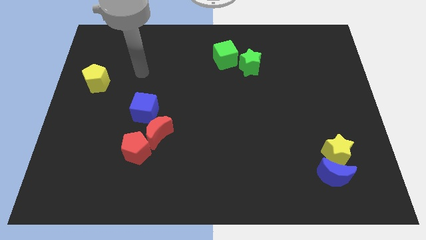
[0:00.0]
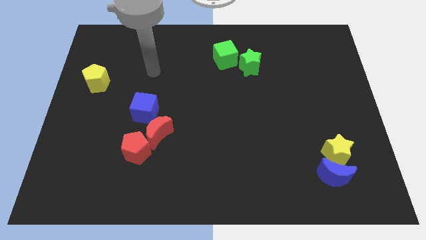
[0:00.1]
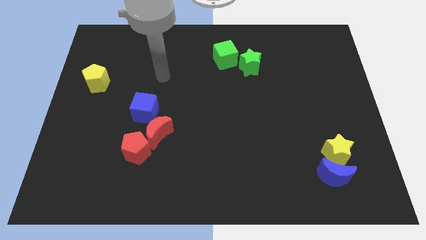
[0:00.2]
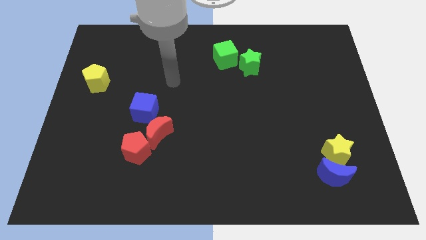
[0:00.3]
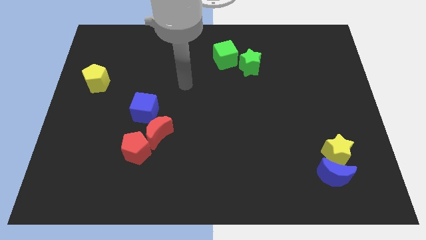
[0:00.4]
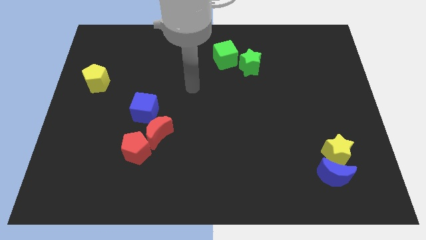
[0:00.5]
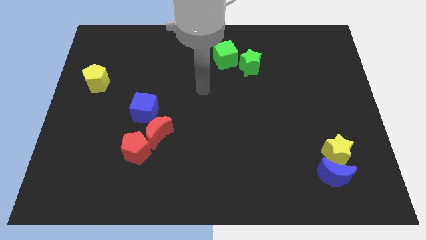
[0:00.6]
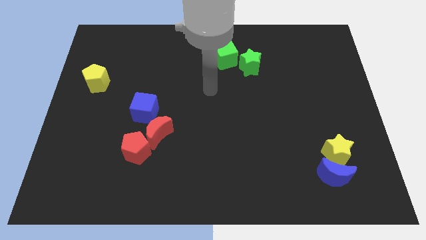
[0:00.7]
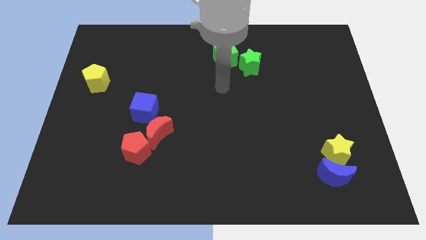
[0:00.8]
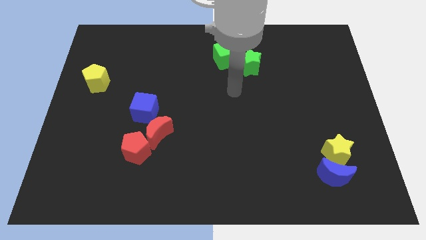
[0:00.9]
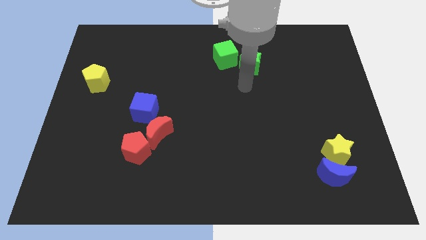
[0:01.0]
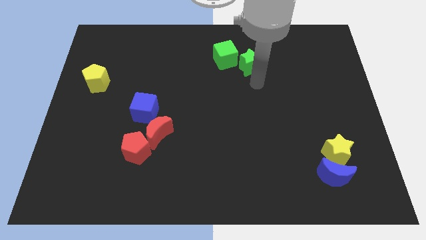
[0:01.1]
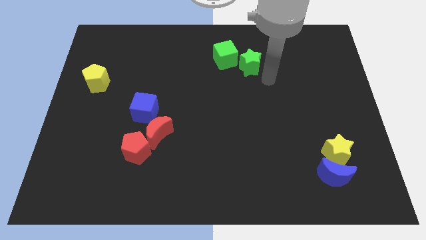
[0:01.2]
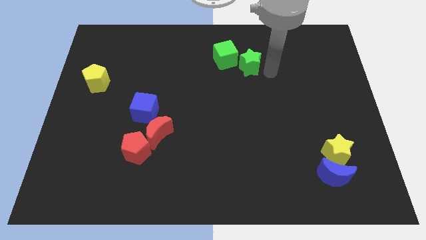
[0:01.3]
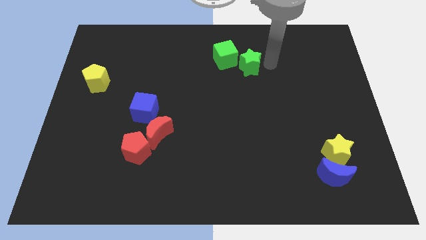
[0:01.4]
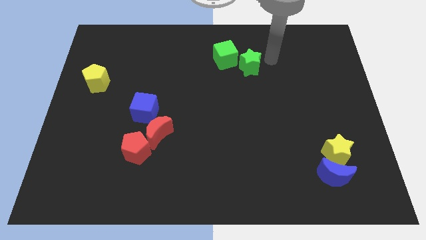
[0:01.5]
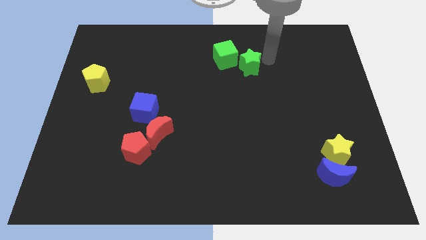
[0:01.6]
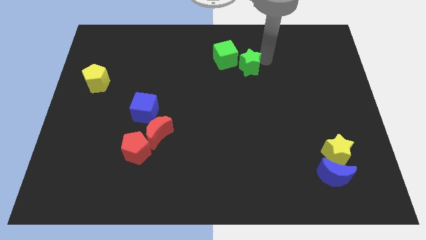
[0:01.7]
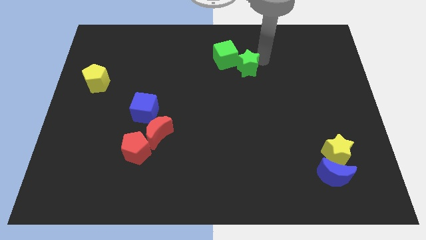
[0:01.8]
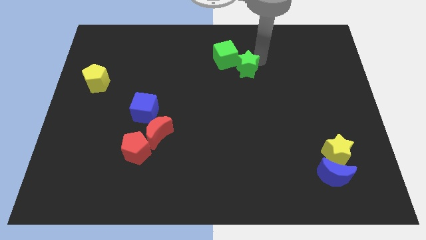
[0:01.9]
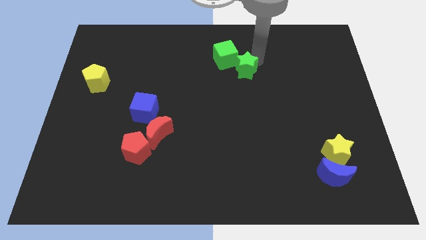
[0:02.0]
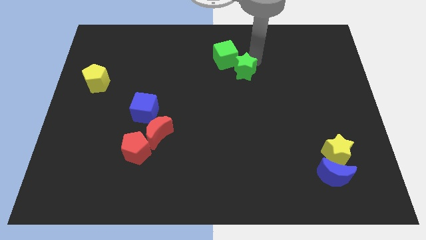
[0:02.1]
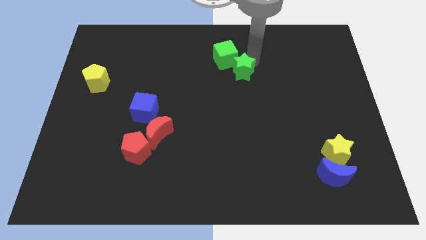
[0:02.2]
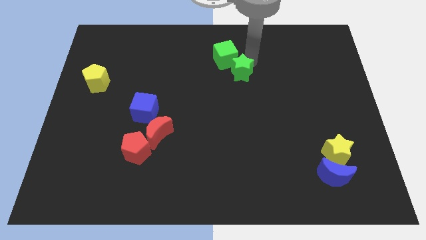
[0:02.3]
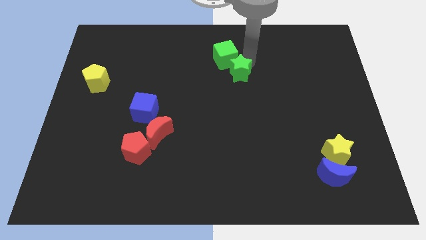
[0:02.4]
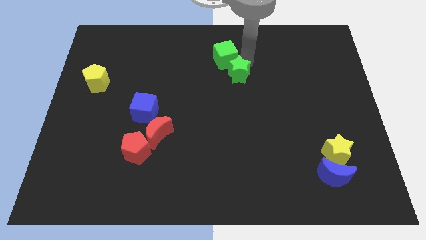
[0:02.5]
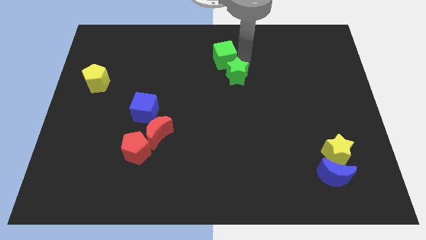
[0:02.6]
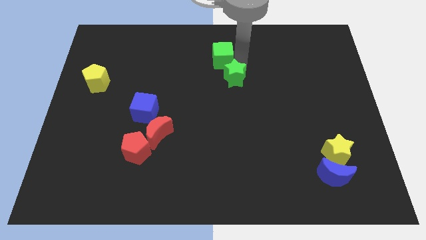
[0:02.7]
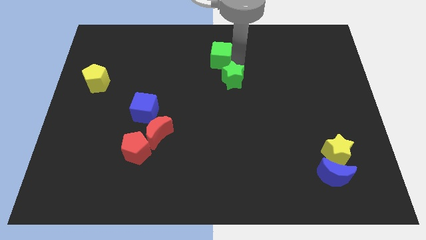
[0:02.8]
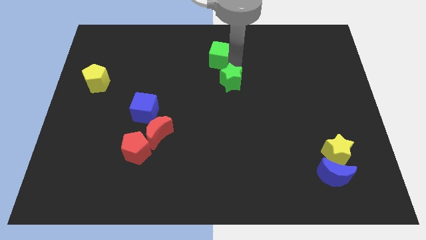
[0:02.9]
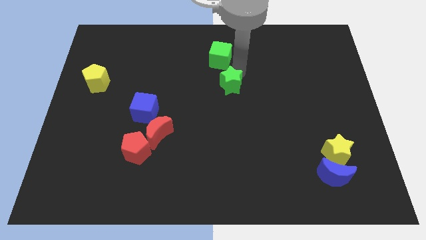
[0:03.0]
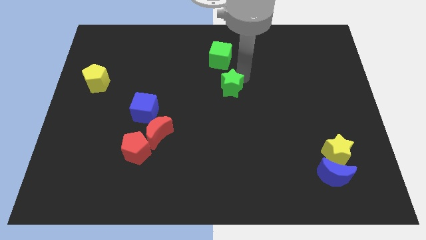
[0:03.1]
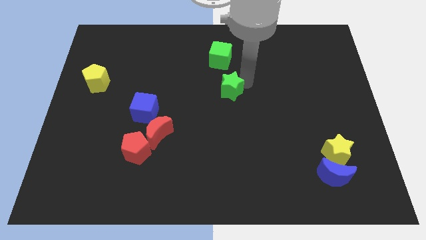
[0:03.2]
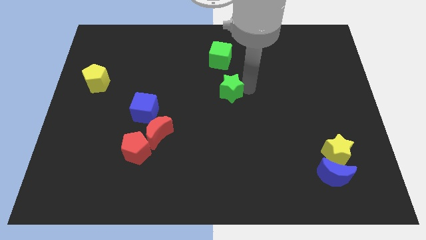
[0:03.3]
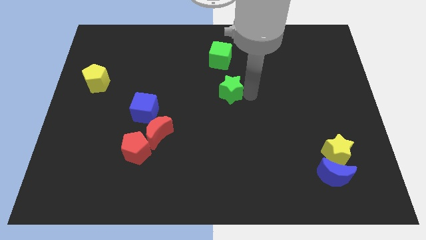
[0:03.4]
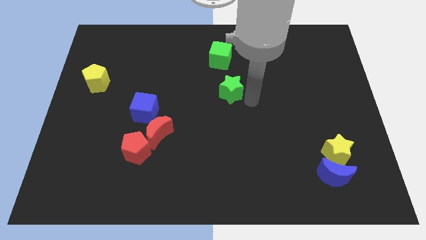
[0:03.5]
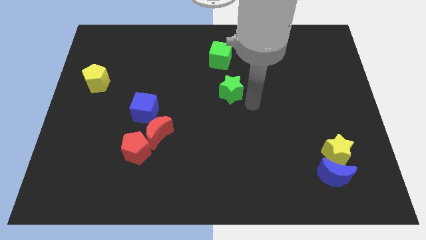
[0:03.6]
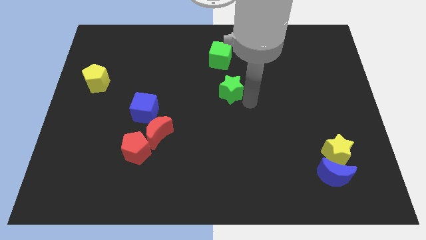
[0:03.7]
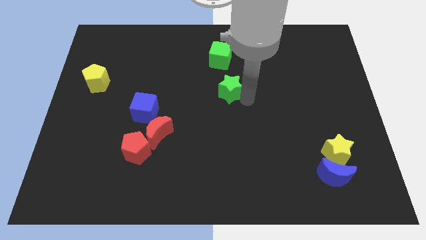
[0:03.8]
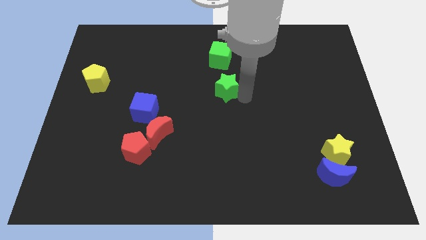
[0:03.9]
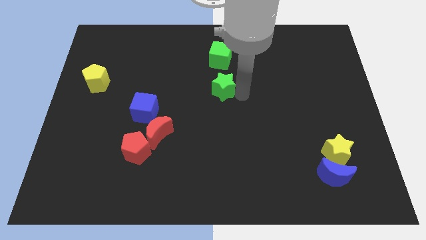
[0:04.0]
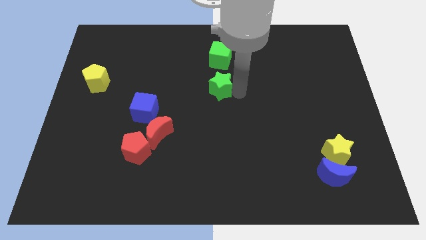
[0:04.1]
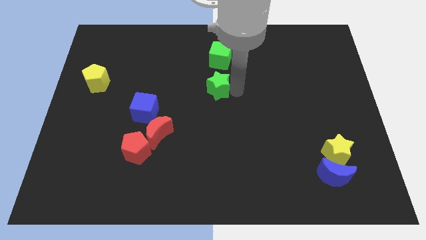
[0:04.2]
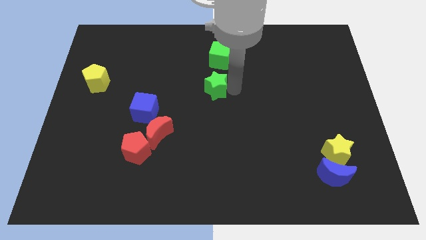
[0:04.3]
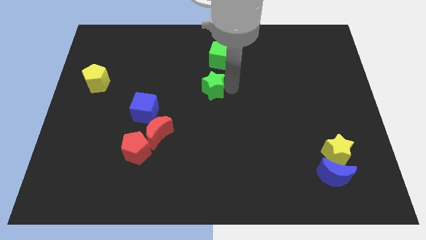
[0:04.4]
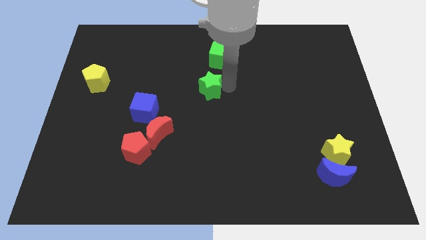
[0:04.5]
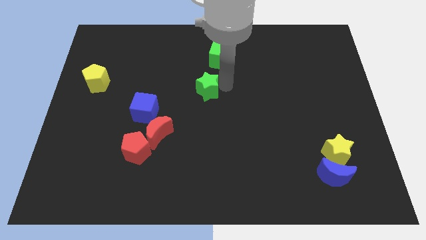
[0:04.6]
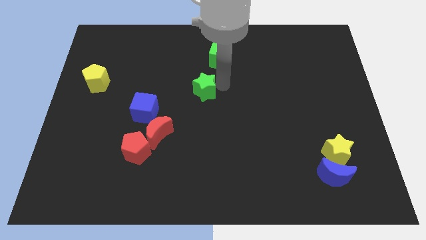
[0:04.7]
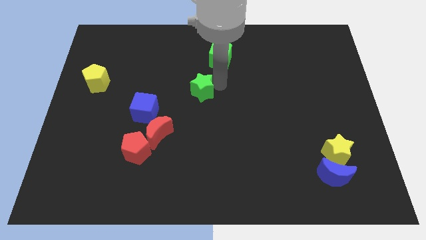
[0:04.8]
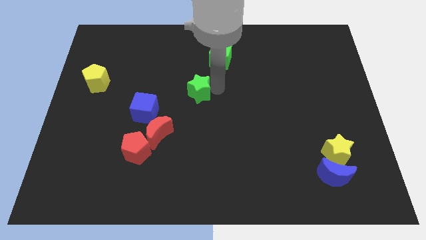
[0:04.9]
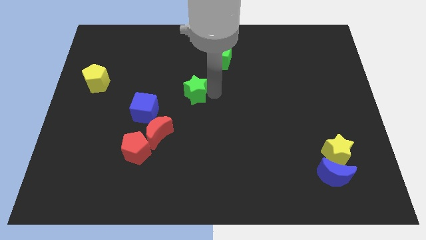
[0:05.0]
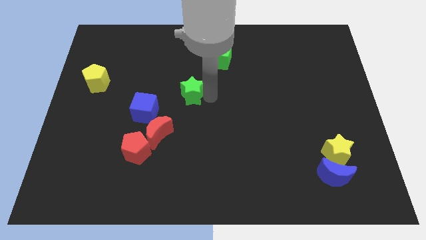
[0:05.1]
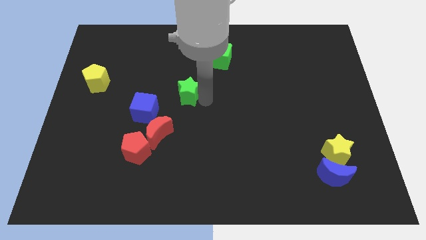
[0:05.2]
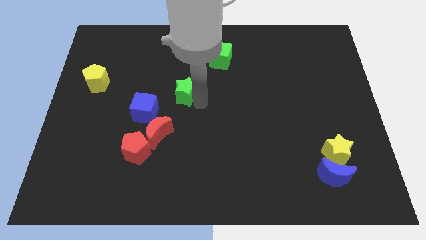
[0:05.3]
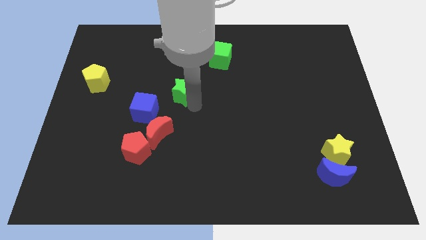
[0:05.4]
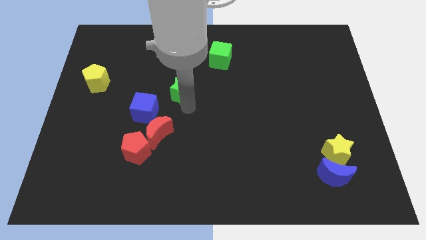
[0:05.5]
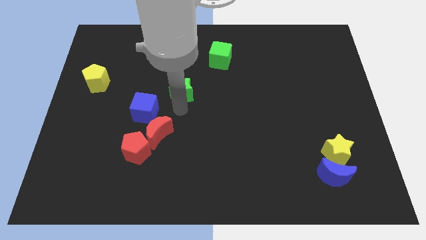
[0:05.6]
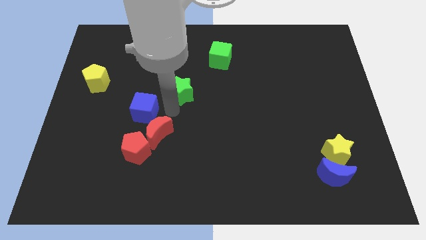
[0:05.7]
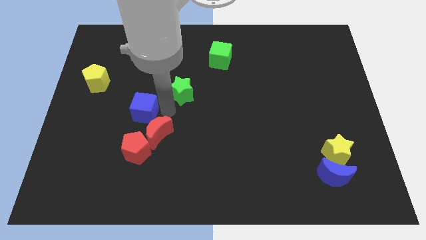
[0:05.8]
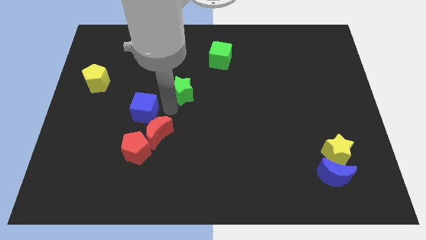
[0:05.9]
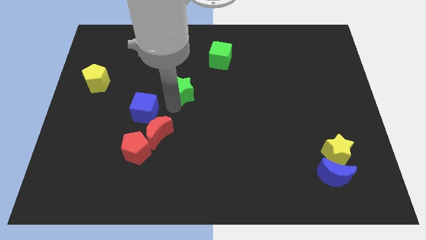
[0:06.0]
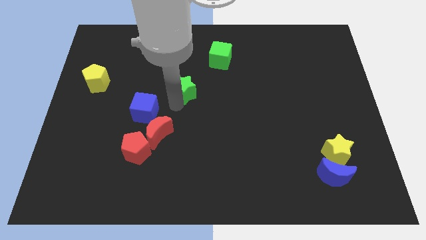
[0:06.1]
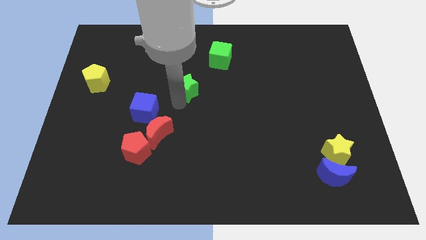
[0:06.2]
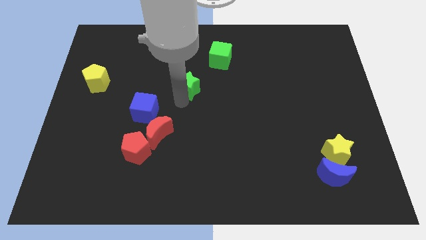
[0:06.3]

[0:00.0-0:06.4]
put the green star to the bottom left of the green cube

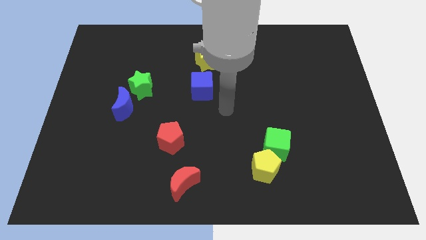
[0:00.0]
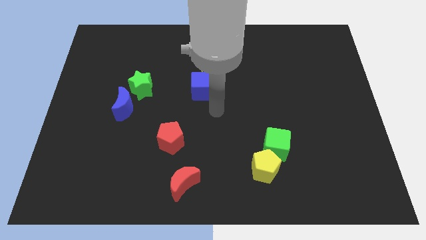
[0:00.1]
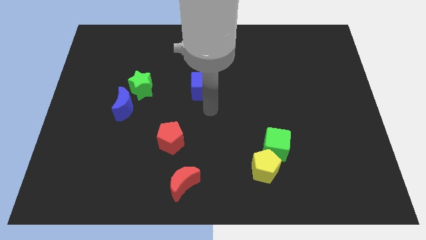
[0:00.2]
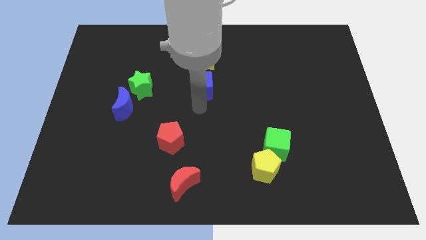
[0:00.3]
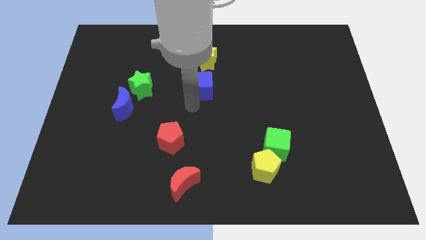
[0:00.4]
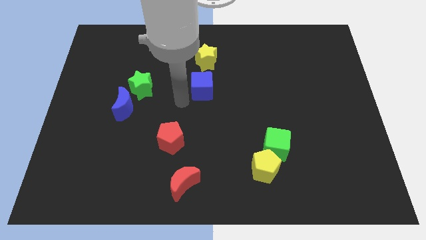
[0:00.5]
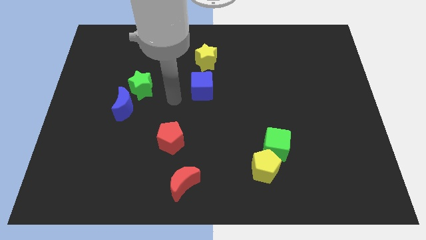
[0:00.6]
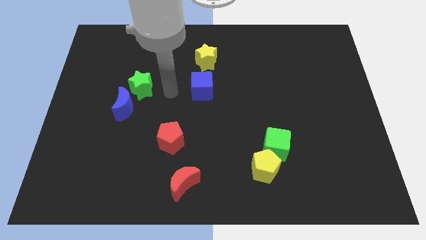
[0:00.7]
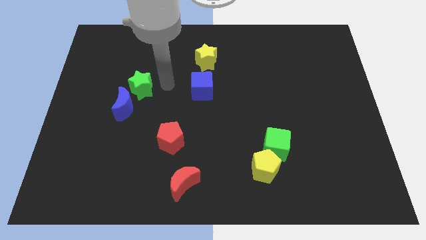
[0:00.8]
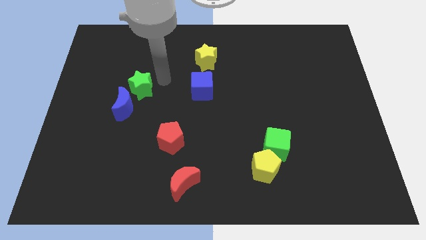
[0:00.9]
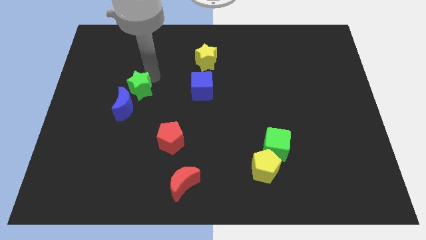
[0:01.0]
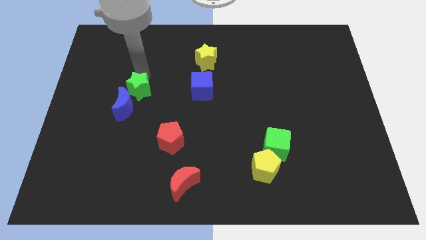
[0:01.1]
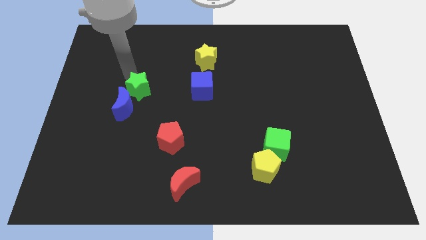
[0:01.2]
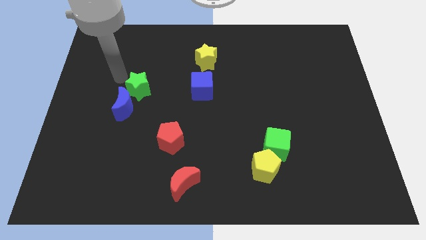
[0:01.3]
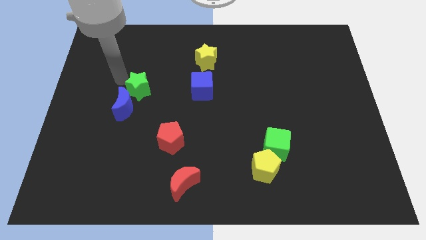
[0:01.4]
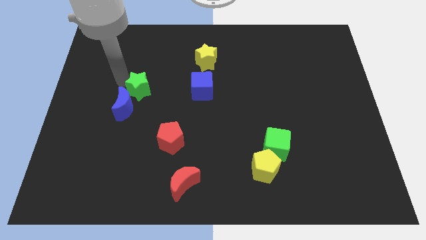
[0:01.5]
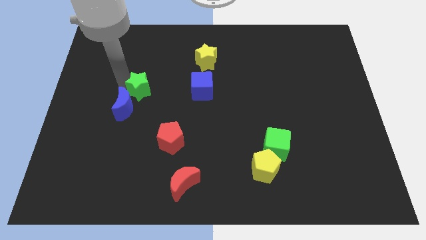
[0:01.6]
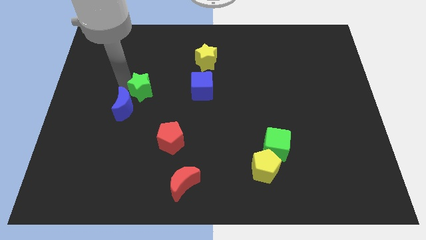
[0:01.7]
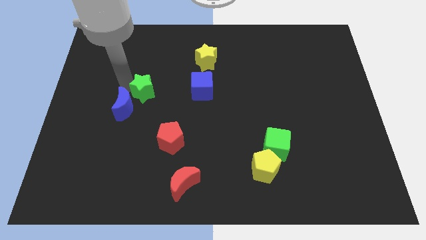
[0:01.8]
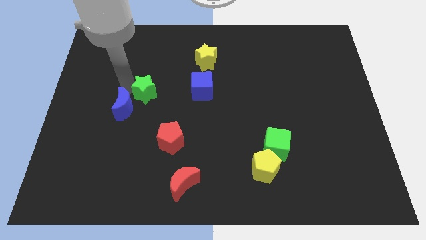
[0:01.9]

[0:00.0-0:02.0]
slide the green star to the right side of the blue moon
